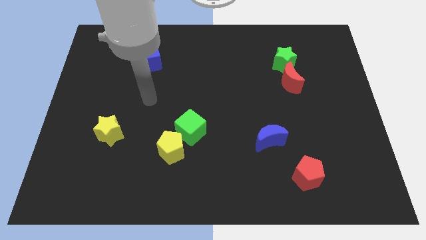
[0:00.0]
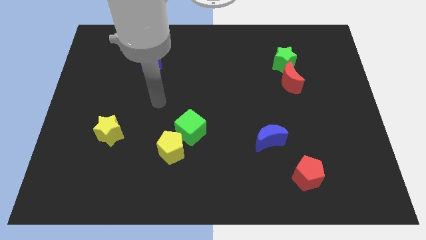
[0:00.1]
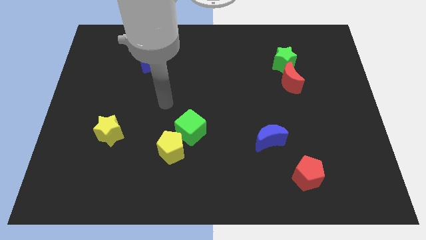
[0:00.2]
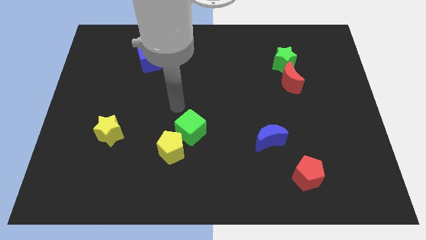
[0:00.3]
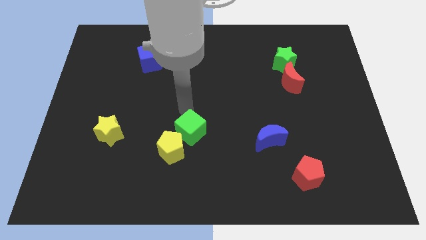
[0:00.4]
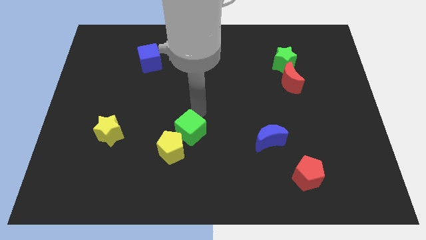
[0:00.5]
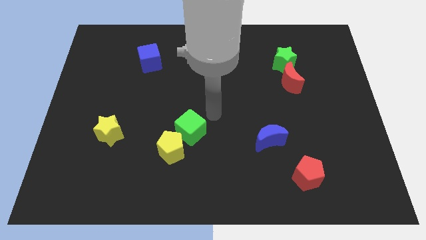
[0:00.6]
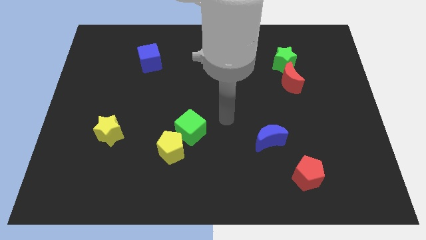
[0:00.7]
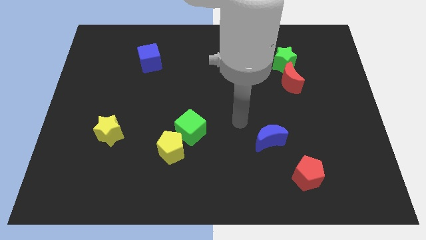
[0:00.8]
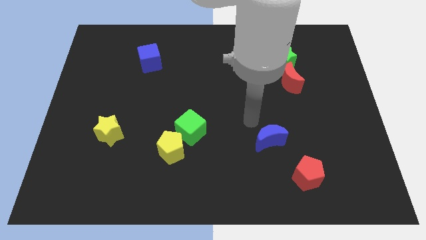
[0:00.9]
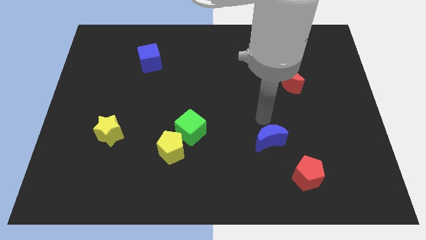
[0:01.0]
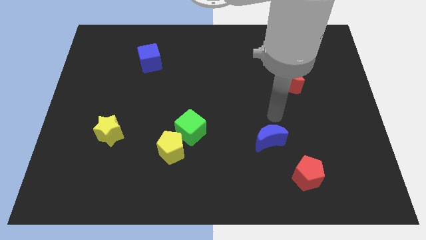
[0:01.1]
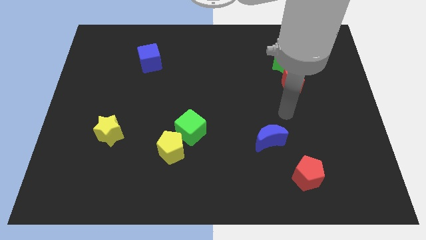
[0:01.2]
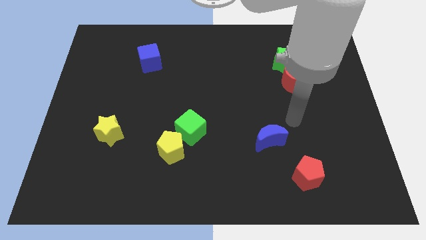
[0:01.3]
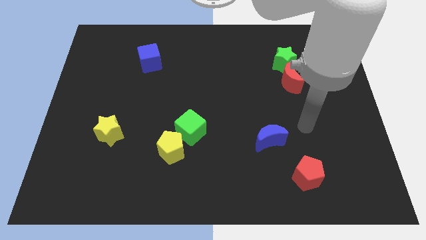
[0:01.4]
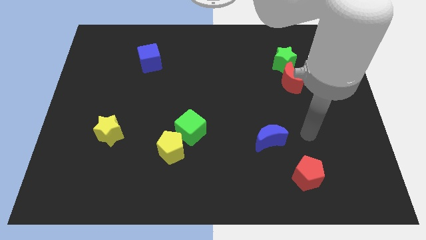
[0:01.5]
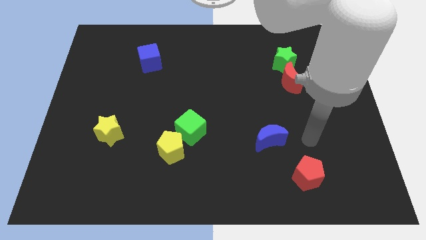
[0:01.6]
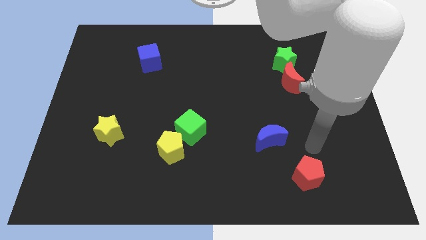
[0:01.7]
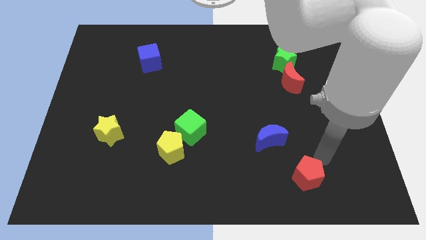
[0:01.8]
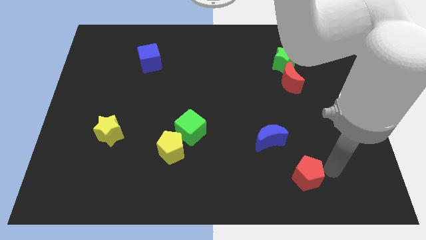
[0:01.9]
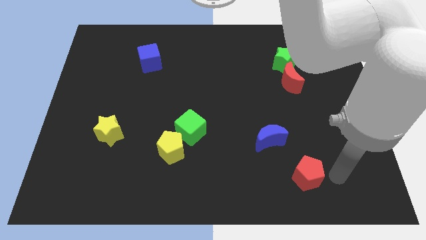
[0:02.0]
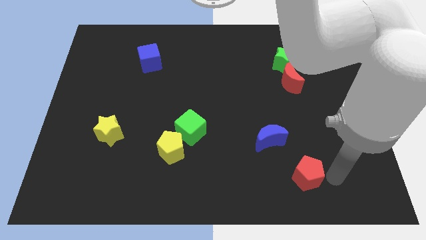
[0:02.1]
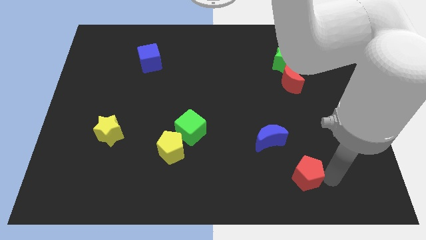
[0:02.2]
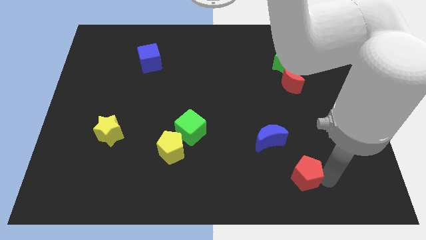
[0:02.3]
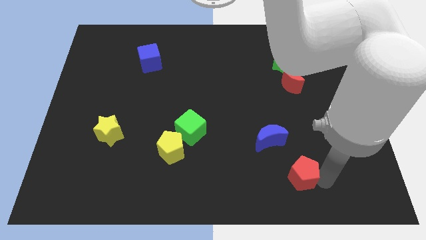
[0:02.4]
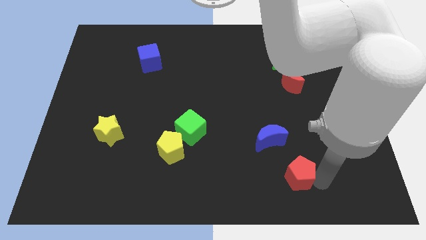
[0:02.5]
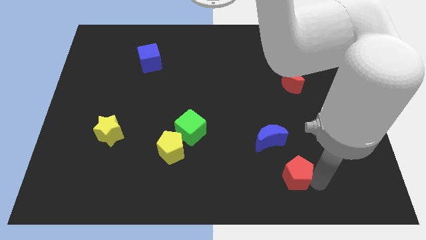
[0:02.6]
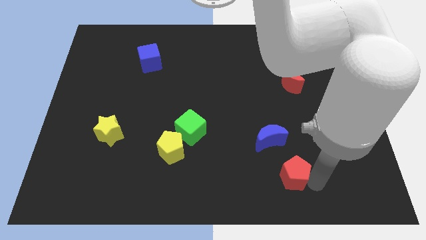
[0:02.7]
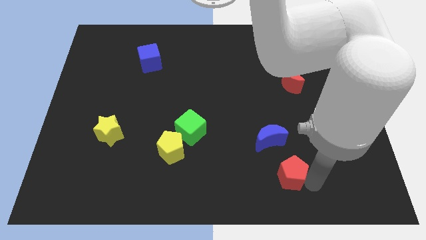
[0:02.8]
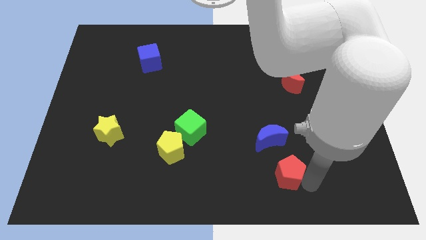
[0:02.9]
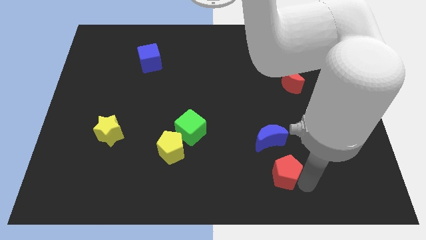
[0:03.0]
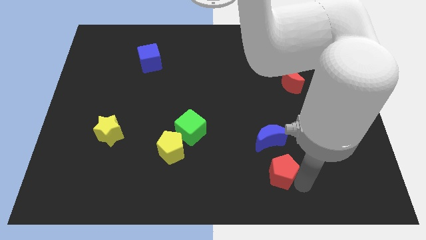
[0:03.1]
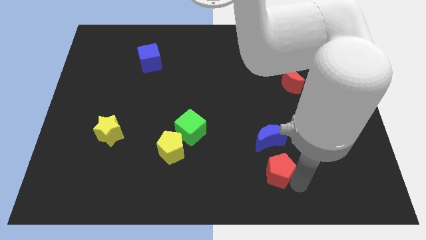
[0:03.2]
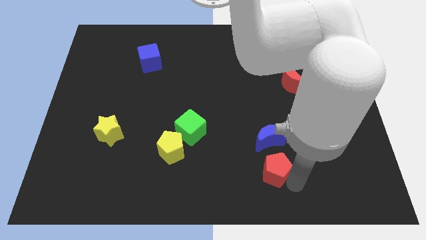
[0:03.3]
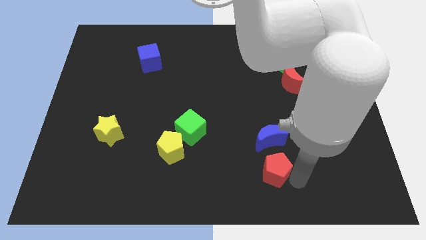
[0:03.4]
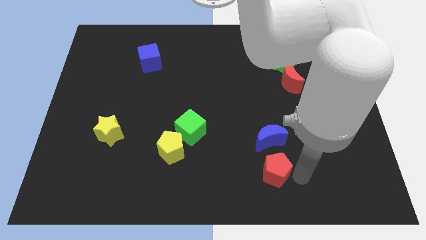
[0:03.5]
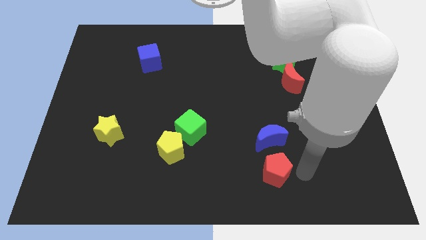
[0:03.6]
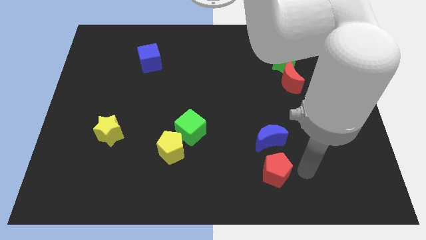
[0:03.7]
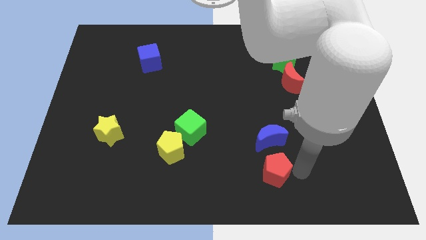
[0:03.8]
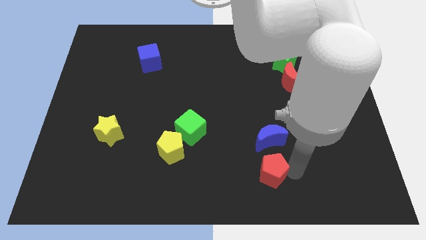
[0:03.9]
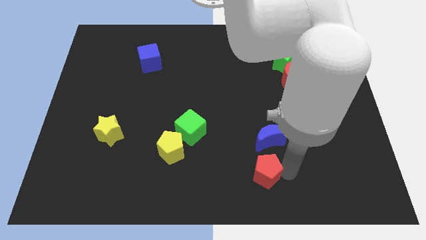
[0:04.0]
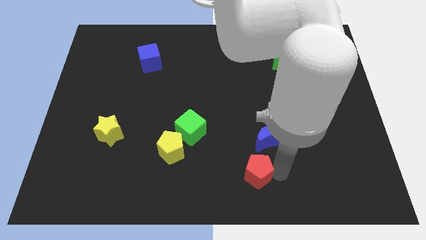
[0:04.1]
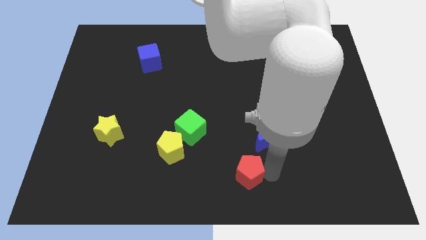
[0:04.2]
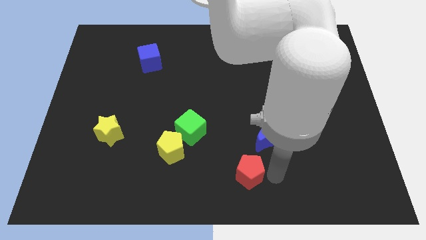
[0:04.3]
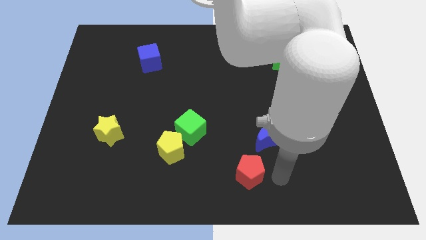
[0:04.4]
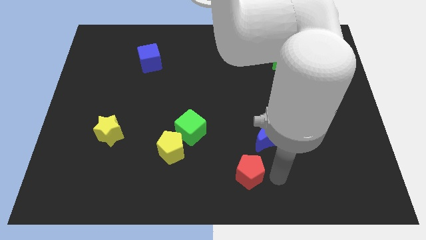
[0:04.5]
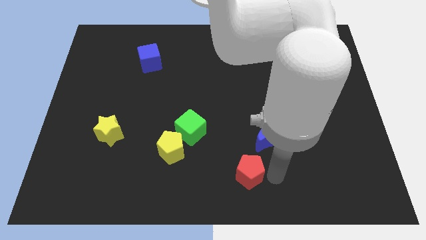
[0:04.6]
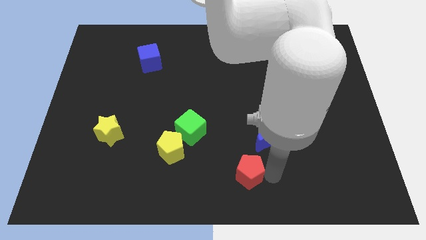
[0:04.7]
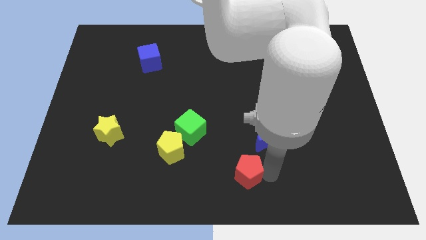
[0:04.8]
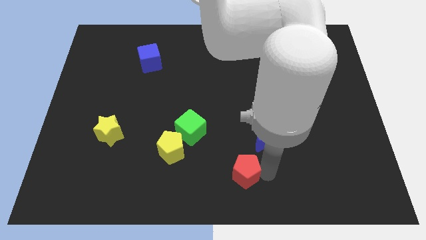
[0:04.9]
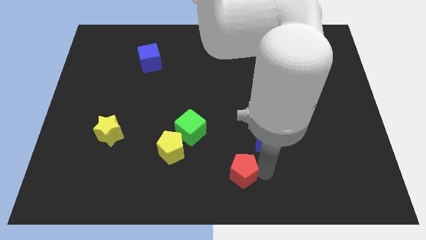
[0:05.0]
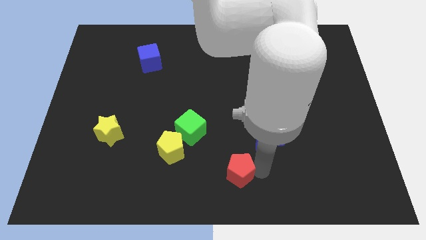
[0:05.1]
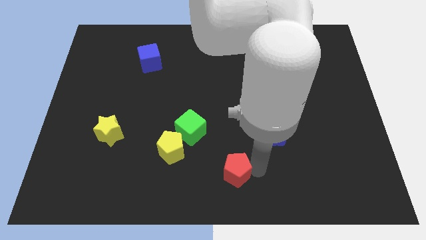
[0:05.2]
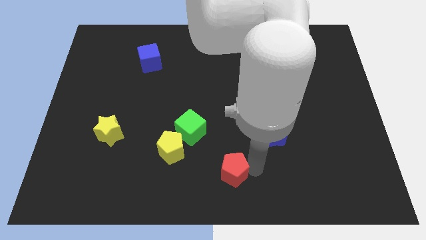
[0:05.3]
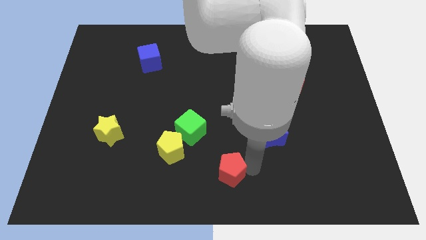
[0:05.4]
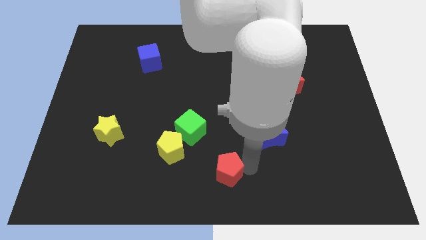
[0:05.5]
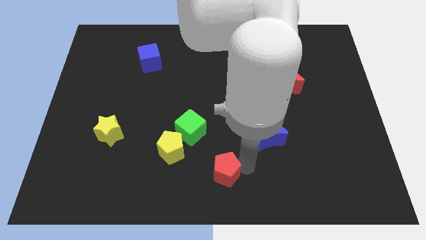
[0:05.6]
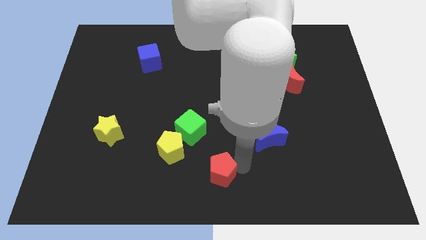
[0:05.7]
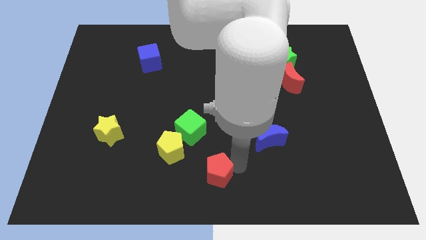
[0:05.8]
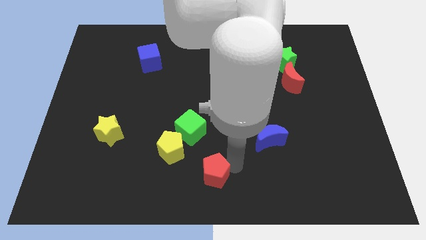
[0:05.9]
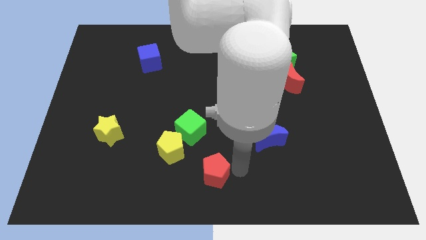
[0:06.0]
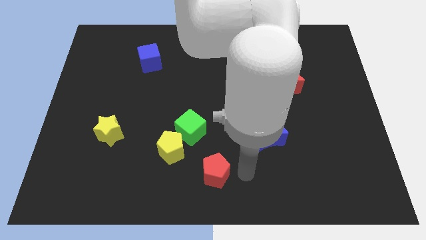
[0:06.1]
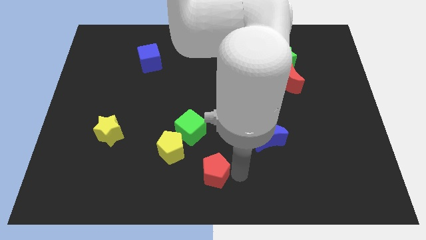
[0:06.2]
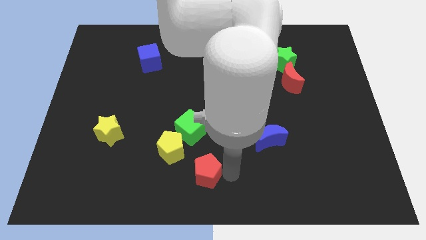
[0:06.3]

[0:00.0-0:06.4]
move the red pentagon to the left

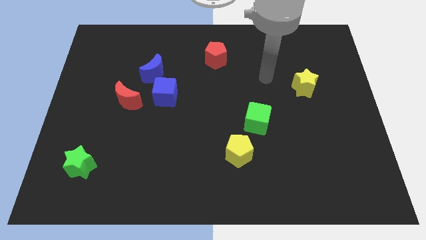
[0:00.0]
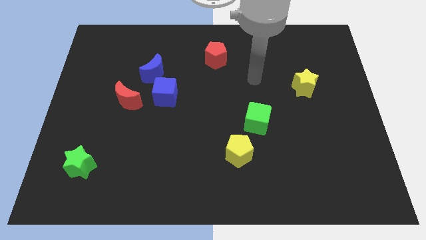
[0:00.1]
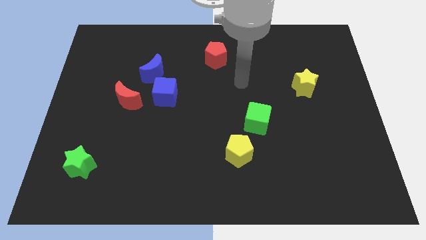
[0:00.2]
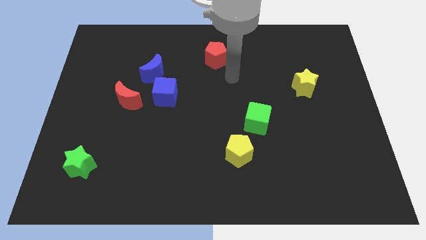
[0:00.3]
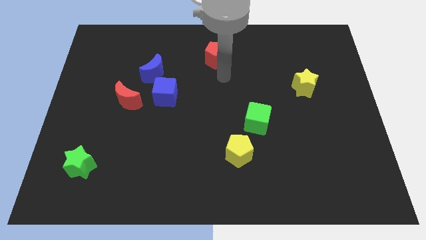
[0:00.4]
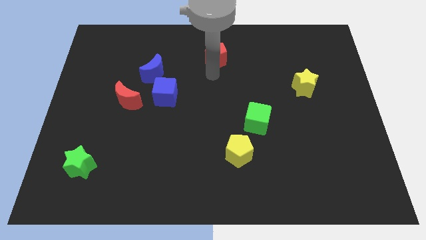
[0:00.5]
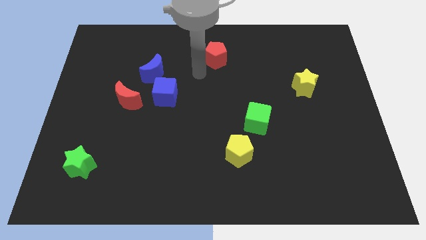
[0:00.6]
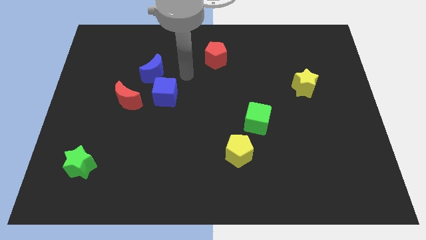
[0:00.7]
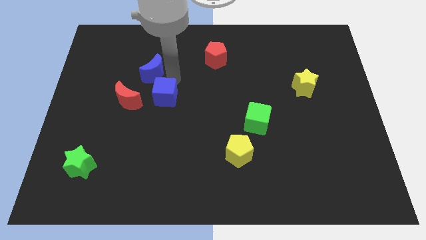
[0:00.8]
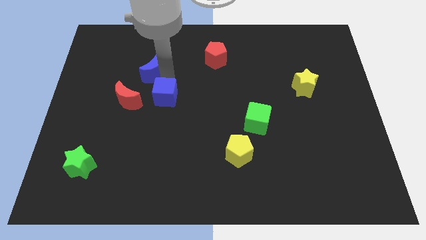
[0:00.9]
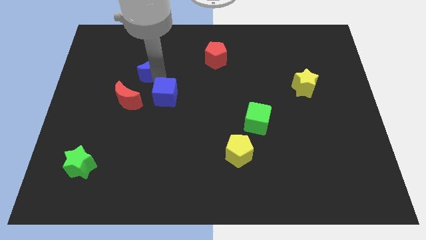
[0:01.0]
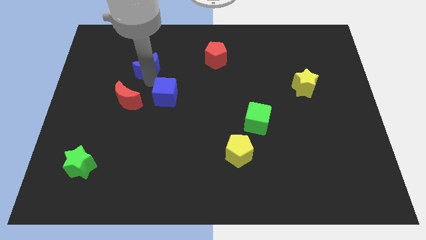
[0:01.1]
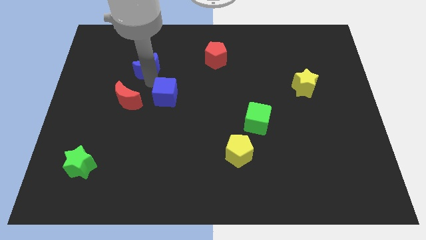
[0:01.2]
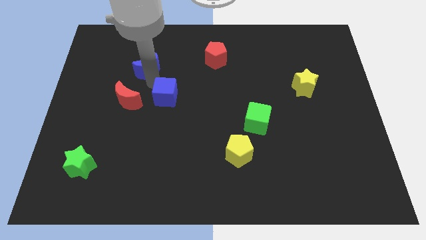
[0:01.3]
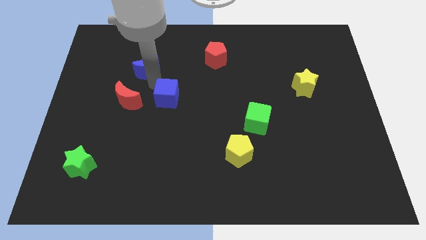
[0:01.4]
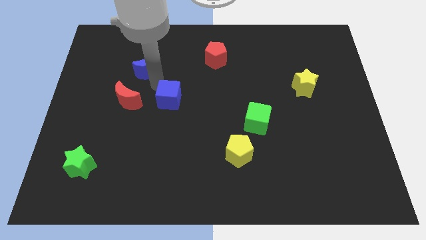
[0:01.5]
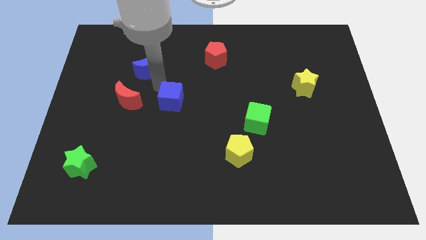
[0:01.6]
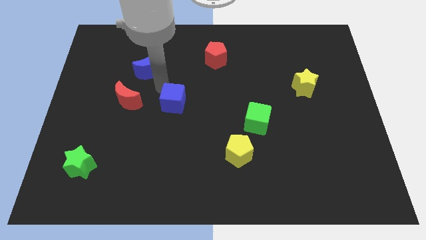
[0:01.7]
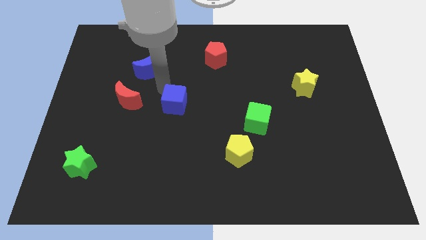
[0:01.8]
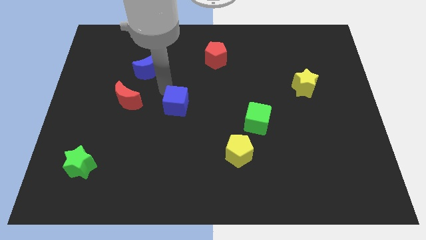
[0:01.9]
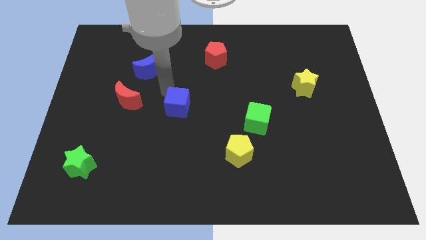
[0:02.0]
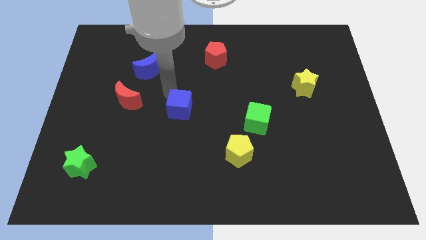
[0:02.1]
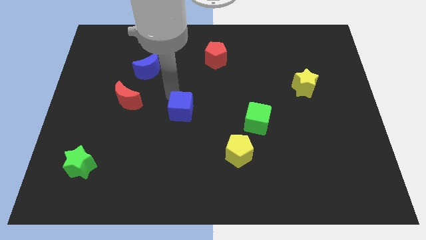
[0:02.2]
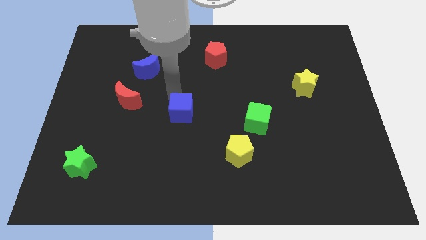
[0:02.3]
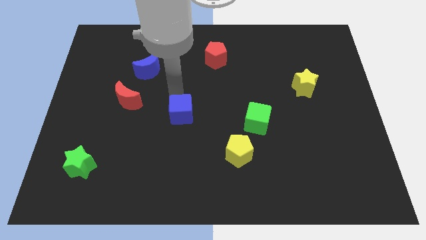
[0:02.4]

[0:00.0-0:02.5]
slide the blue cube diagonally down and to the right a little
